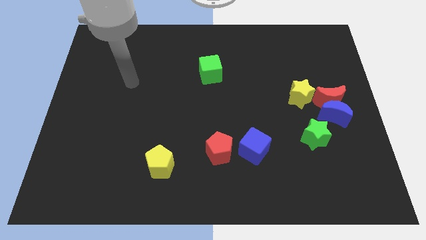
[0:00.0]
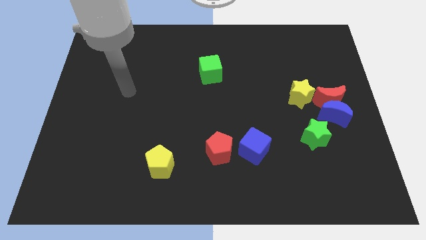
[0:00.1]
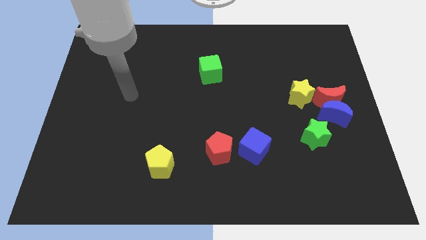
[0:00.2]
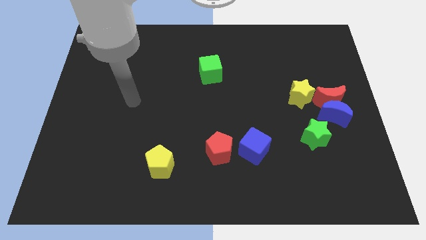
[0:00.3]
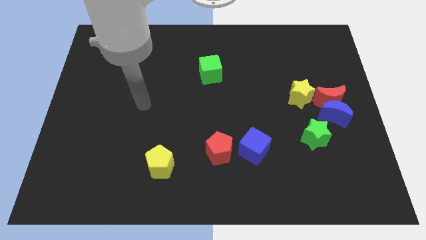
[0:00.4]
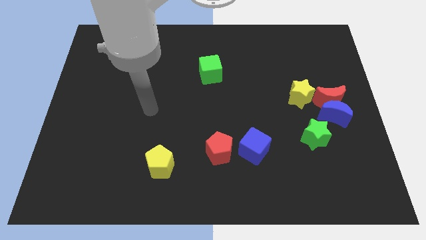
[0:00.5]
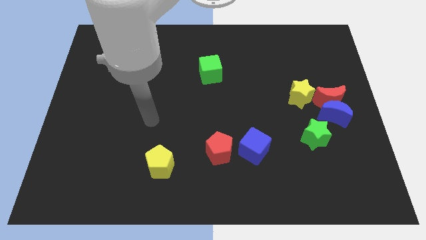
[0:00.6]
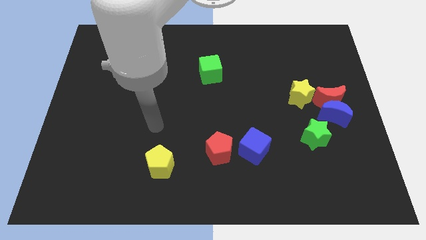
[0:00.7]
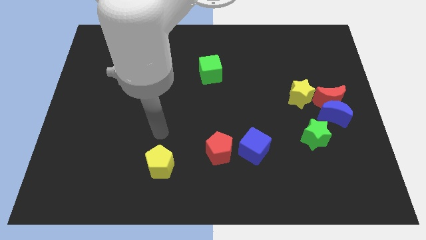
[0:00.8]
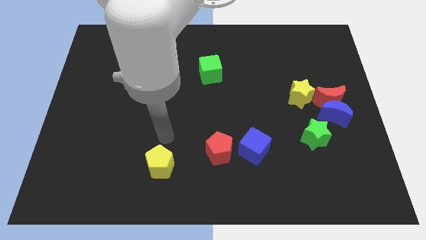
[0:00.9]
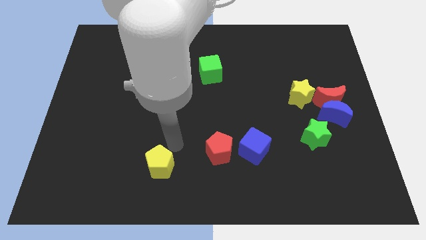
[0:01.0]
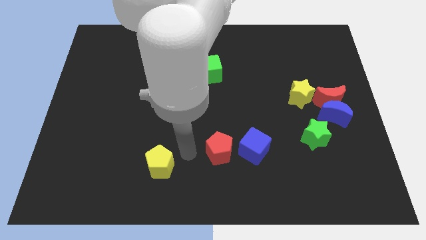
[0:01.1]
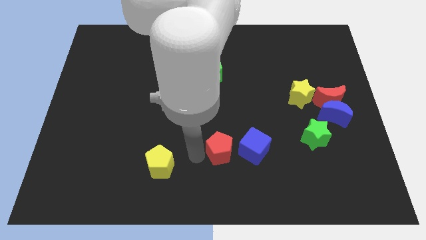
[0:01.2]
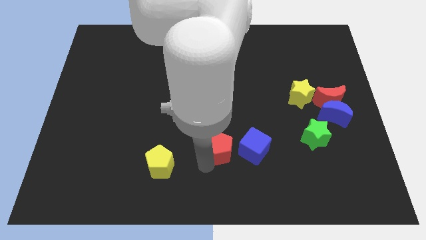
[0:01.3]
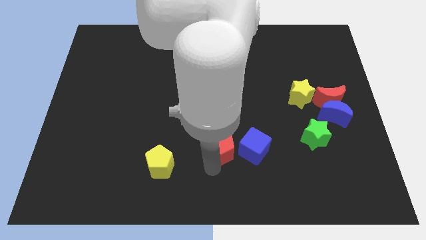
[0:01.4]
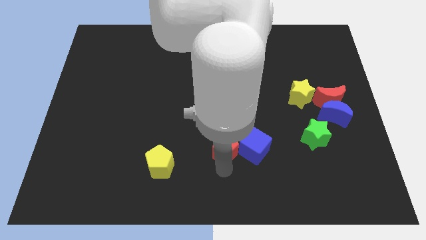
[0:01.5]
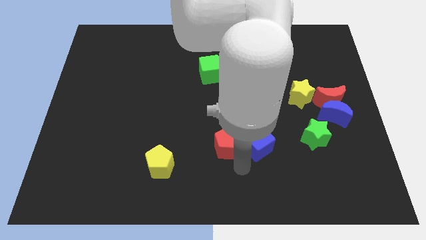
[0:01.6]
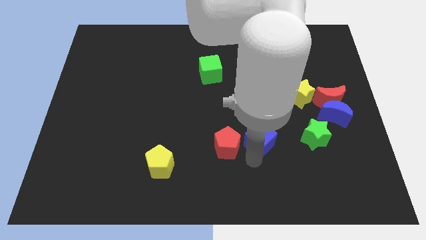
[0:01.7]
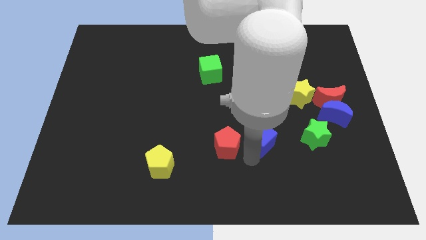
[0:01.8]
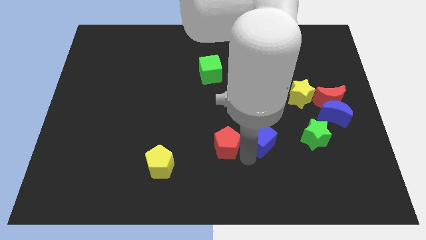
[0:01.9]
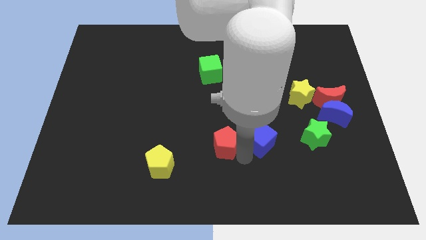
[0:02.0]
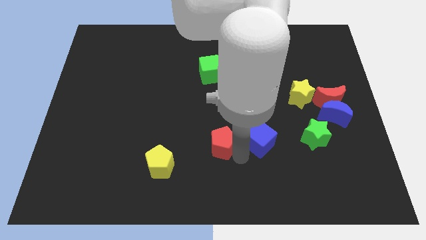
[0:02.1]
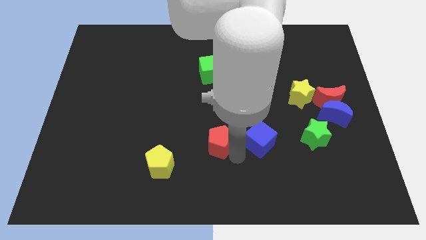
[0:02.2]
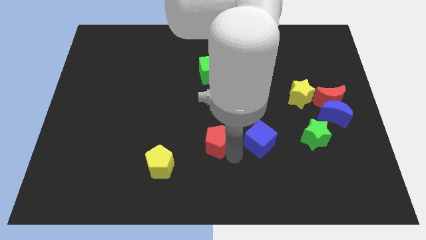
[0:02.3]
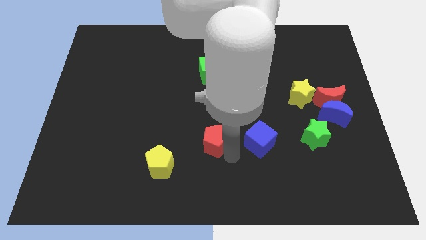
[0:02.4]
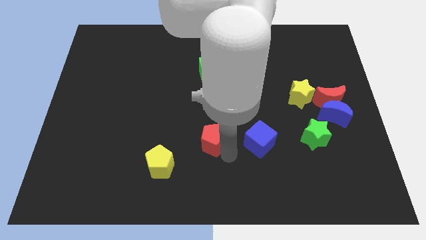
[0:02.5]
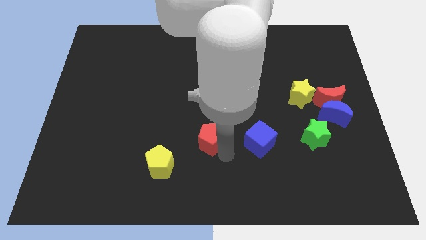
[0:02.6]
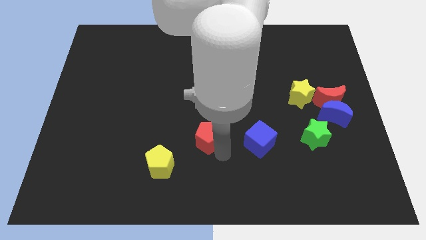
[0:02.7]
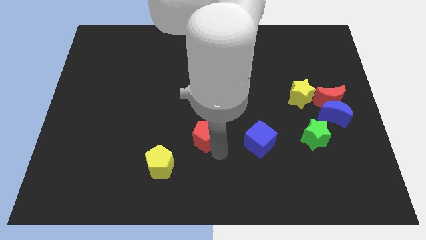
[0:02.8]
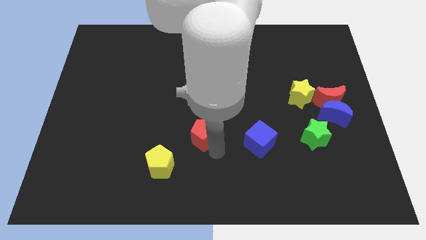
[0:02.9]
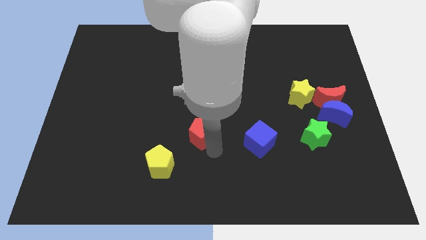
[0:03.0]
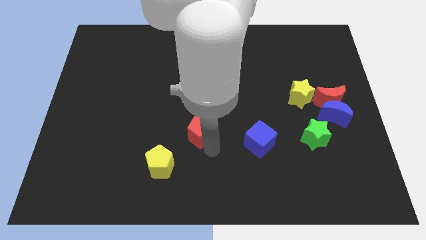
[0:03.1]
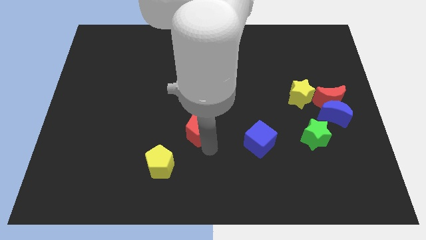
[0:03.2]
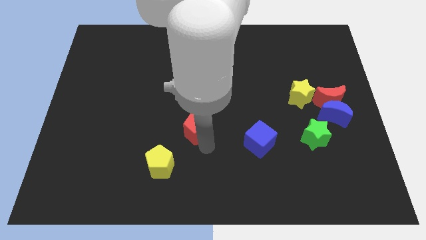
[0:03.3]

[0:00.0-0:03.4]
slightly push the red pentagon upwards and then left

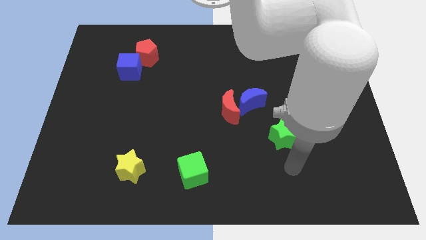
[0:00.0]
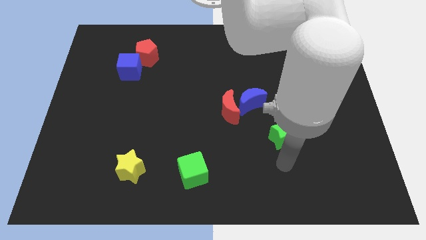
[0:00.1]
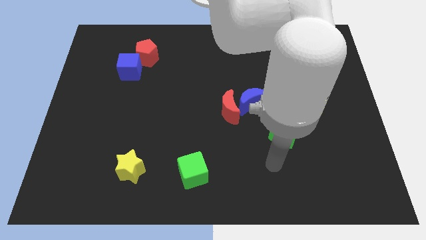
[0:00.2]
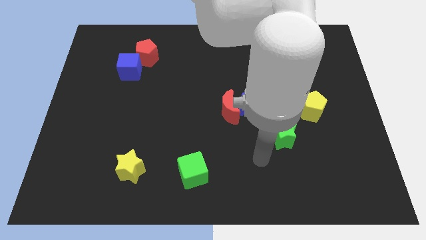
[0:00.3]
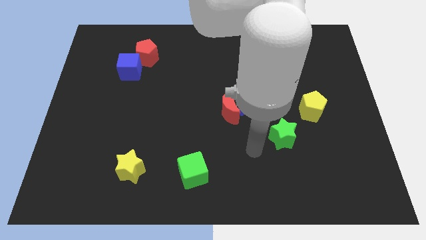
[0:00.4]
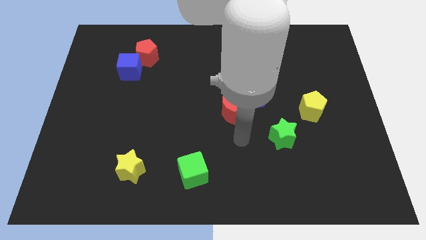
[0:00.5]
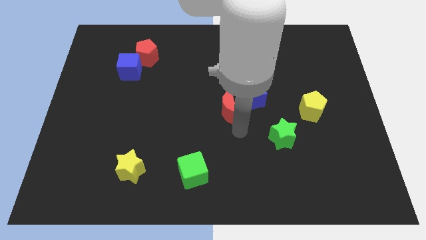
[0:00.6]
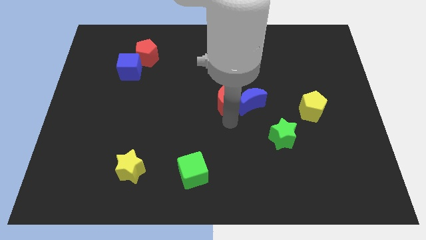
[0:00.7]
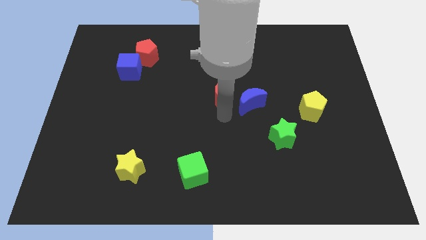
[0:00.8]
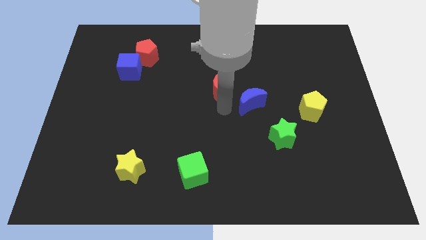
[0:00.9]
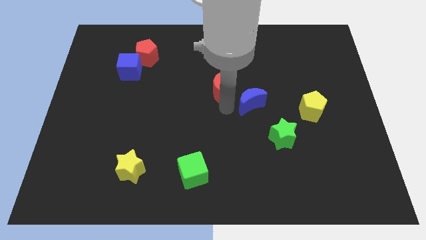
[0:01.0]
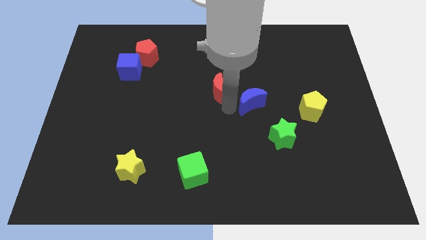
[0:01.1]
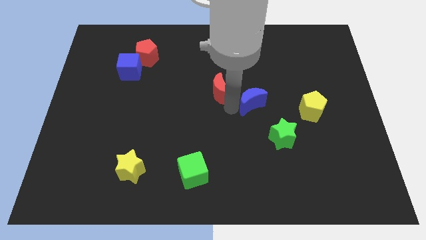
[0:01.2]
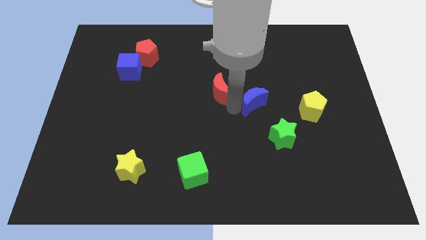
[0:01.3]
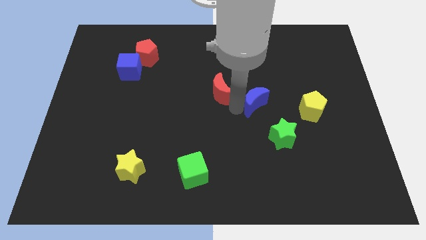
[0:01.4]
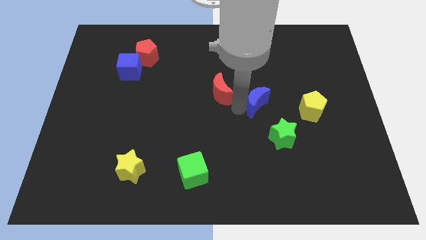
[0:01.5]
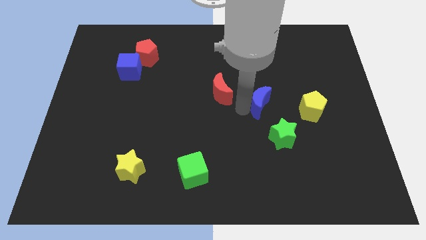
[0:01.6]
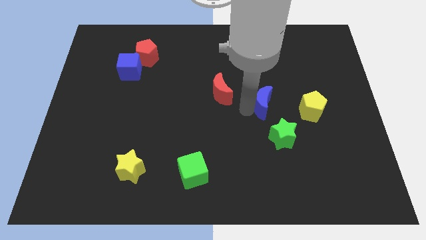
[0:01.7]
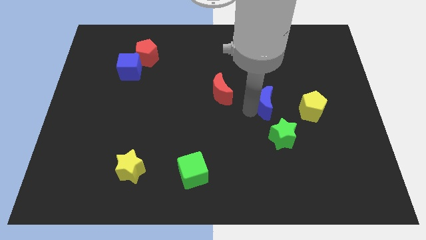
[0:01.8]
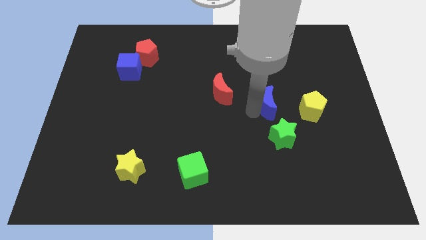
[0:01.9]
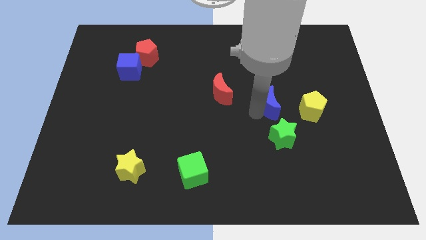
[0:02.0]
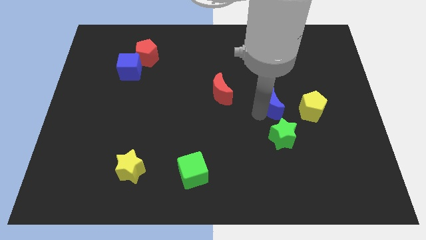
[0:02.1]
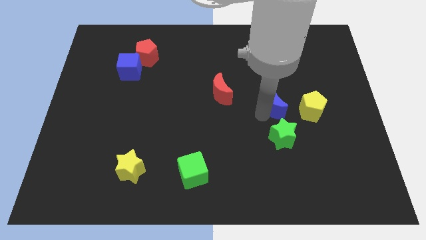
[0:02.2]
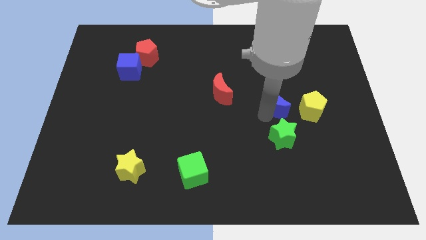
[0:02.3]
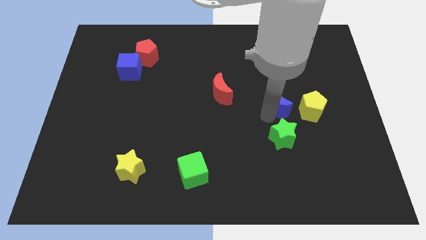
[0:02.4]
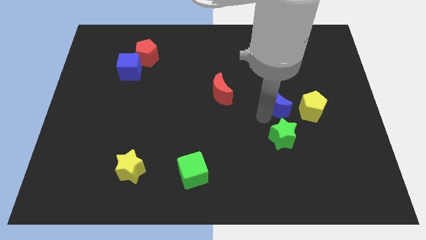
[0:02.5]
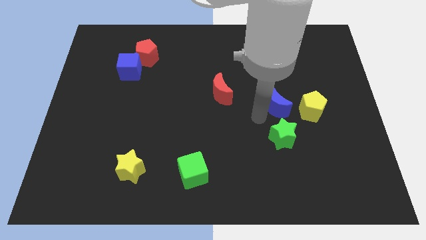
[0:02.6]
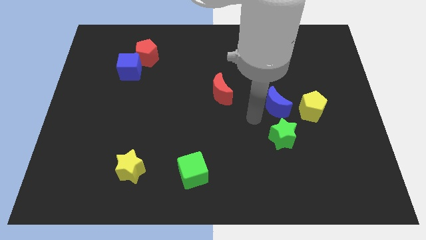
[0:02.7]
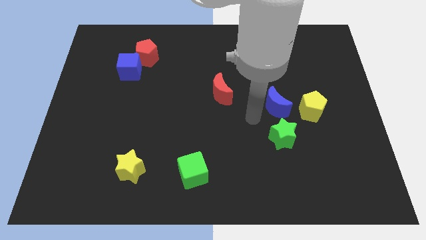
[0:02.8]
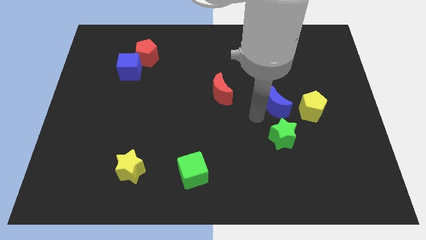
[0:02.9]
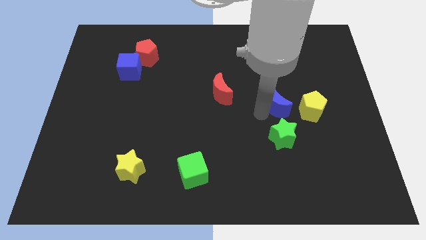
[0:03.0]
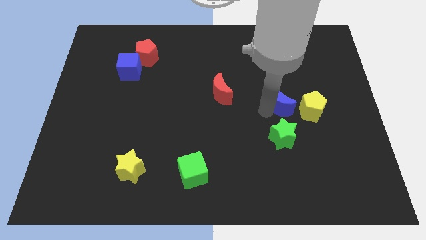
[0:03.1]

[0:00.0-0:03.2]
push the blue moon somewhat right

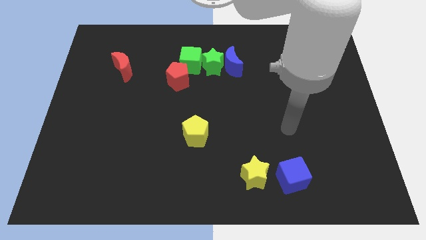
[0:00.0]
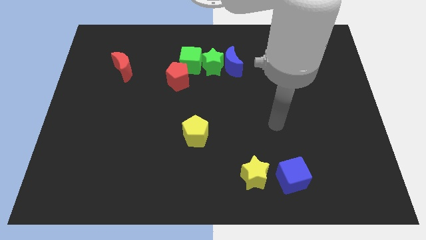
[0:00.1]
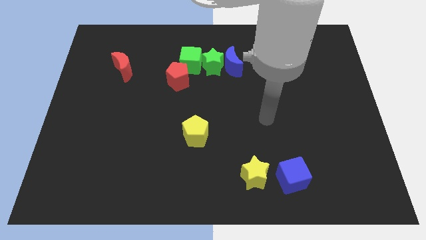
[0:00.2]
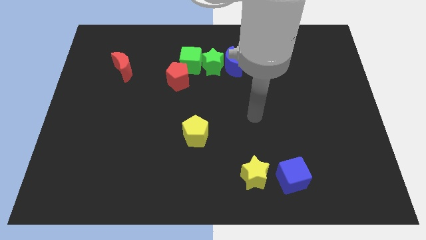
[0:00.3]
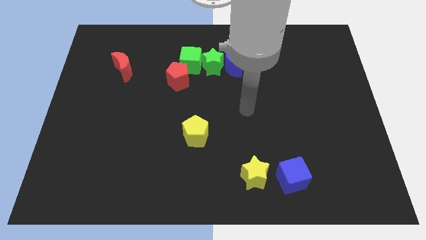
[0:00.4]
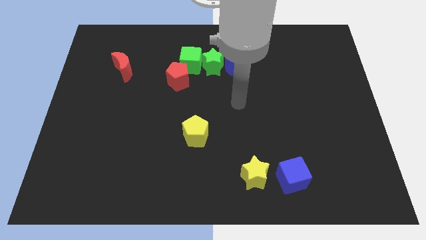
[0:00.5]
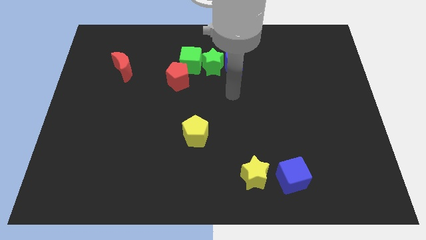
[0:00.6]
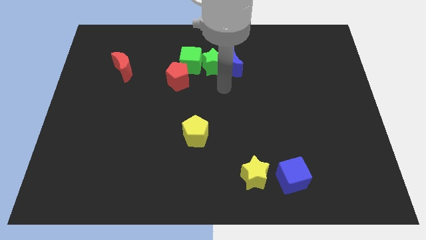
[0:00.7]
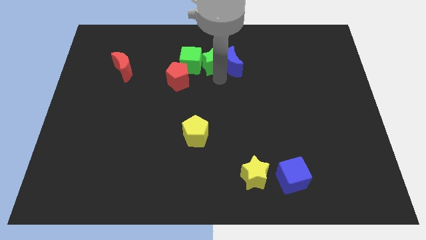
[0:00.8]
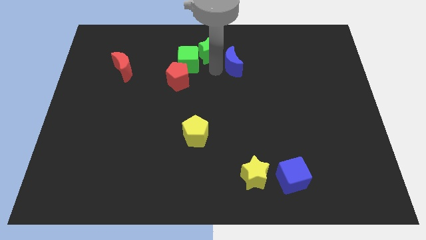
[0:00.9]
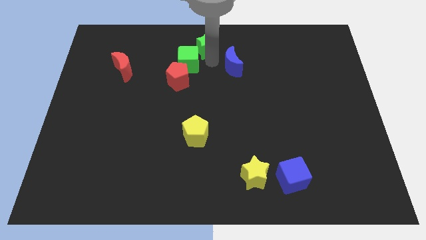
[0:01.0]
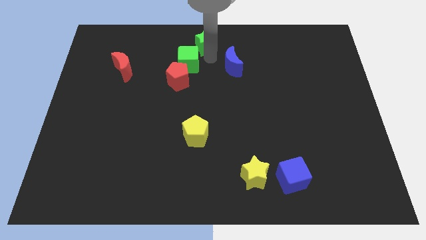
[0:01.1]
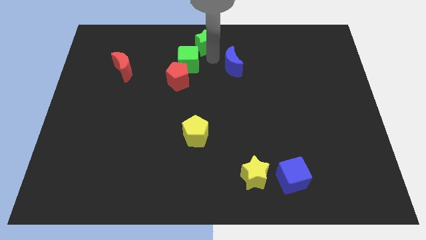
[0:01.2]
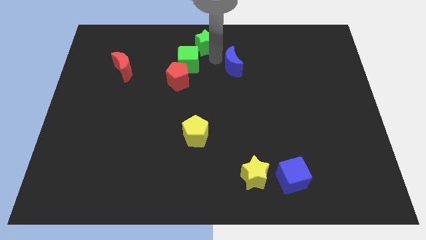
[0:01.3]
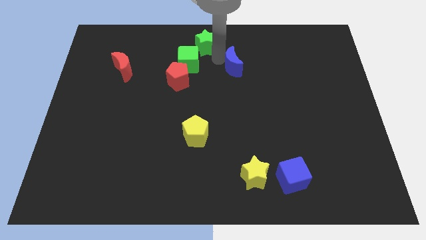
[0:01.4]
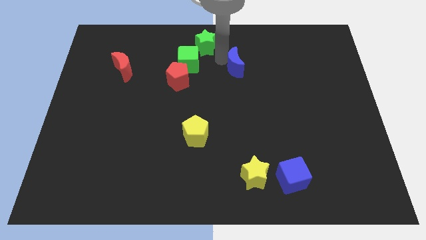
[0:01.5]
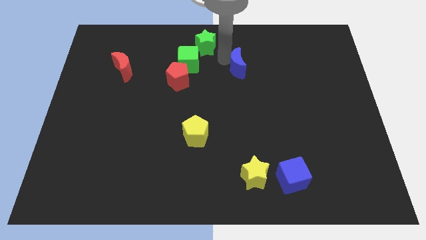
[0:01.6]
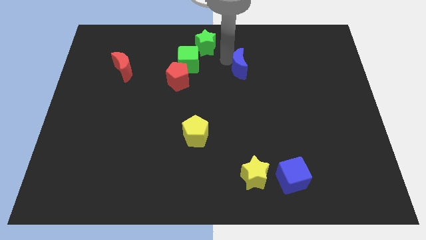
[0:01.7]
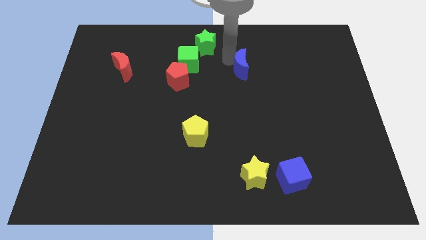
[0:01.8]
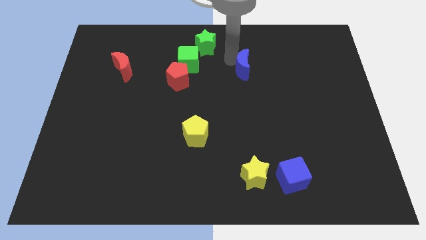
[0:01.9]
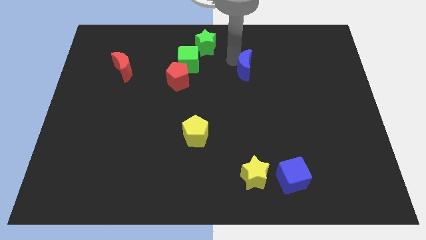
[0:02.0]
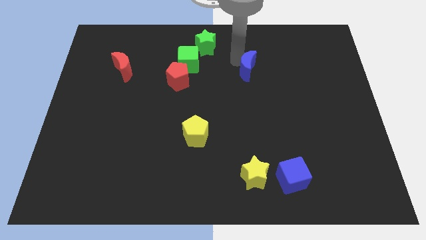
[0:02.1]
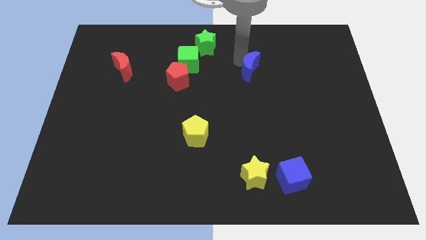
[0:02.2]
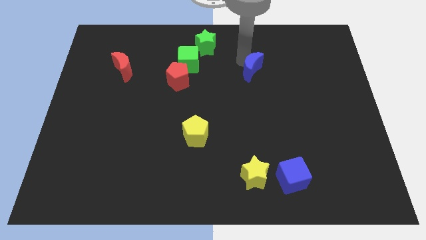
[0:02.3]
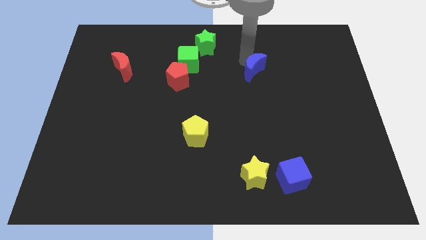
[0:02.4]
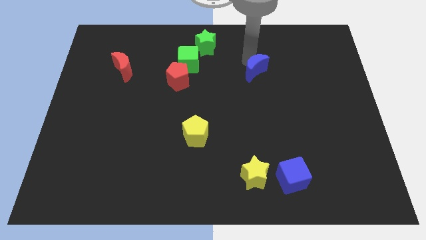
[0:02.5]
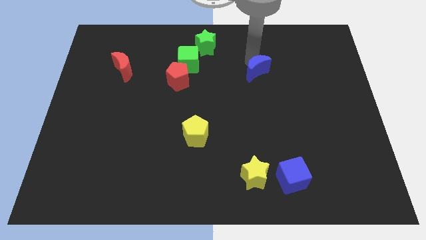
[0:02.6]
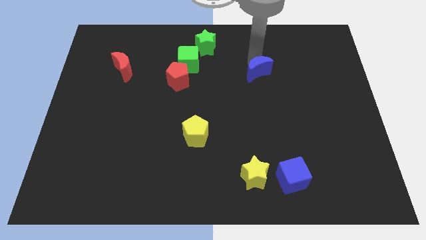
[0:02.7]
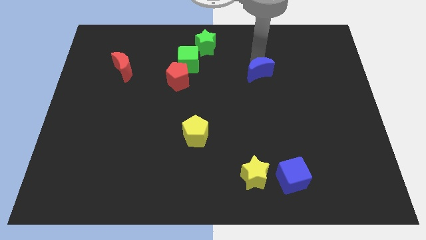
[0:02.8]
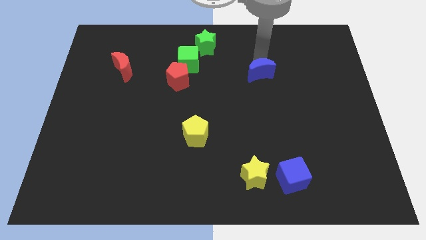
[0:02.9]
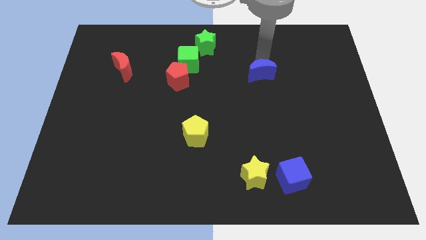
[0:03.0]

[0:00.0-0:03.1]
move the blue moon downwards and right diagonally a little
